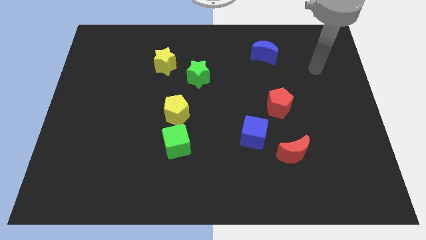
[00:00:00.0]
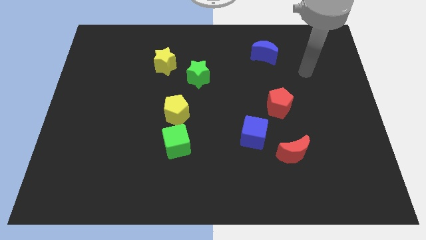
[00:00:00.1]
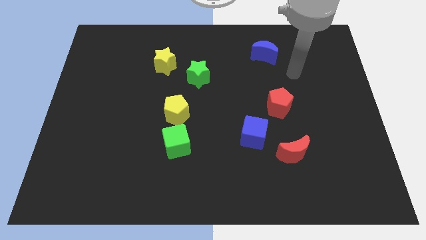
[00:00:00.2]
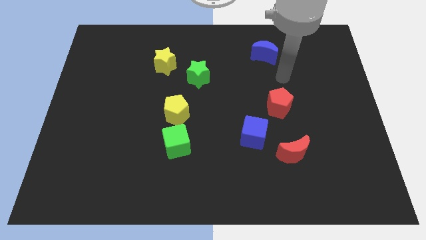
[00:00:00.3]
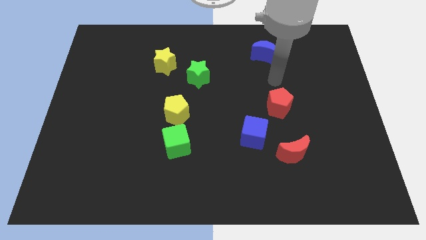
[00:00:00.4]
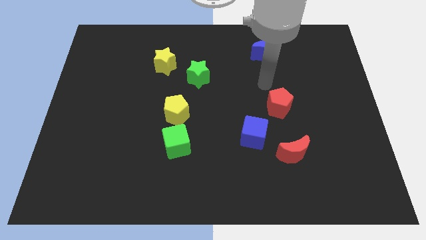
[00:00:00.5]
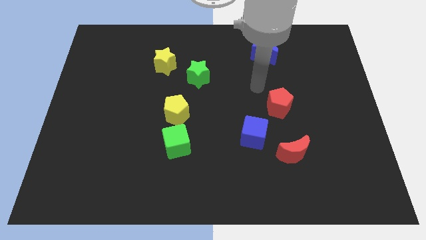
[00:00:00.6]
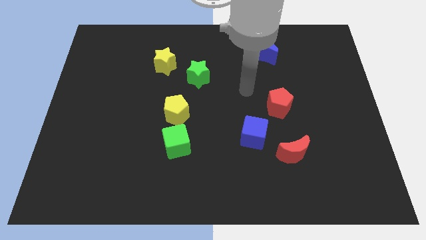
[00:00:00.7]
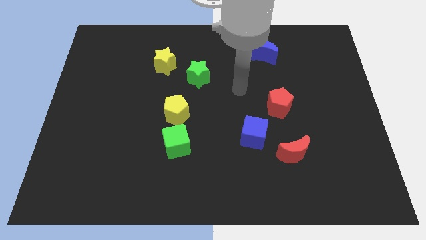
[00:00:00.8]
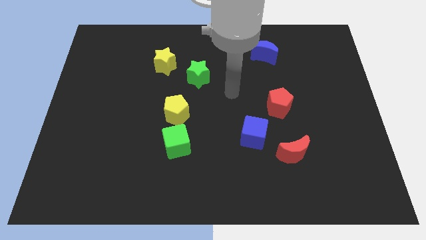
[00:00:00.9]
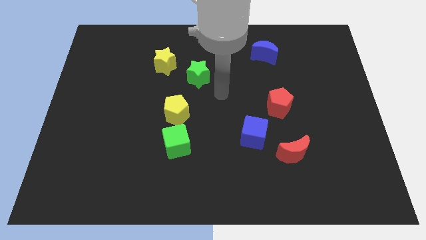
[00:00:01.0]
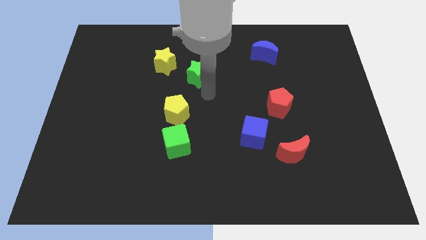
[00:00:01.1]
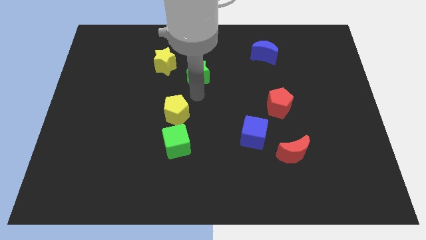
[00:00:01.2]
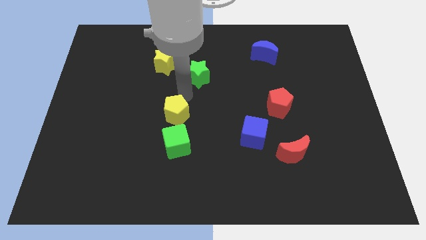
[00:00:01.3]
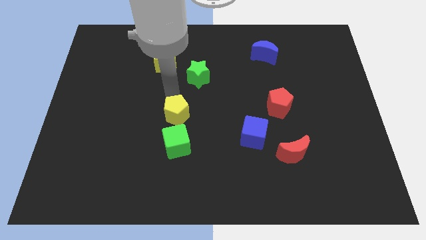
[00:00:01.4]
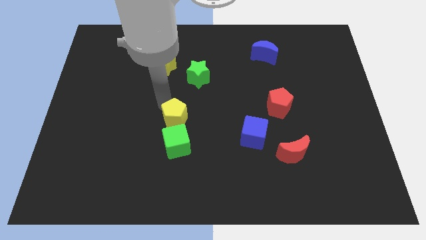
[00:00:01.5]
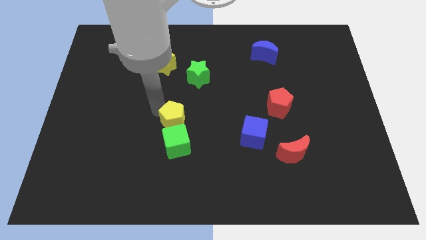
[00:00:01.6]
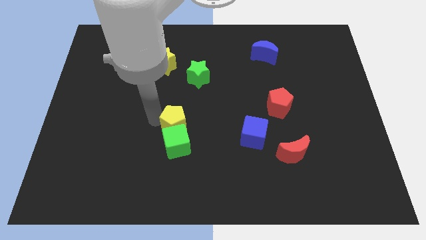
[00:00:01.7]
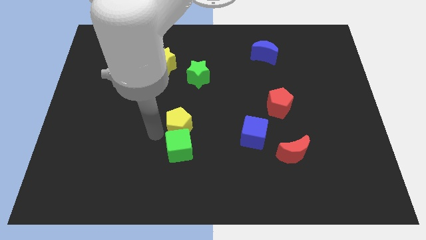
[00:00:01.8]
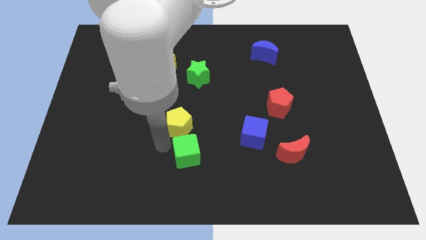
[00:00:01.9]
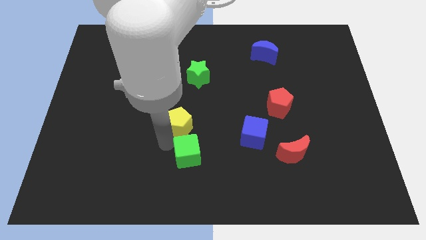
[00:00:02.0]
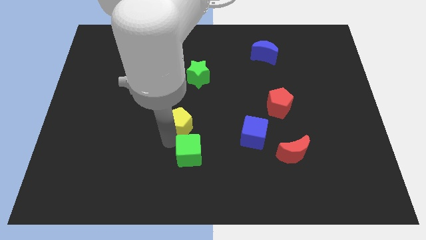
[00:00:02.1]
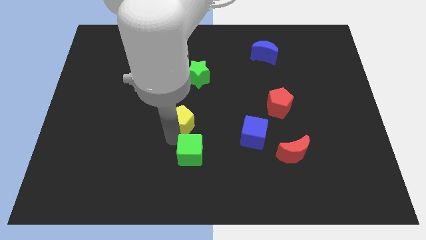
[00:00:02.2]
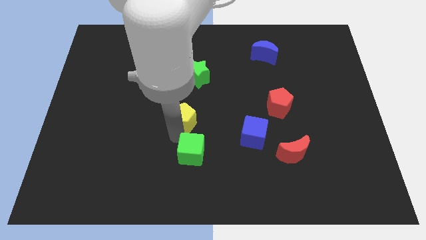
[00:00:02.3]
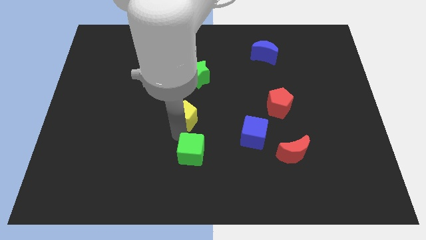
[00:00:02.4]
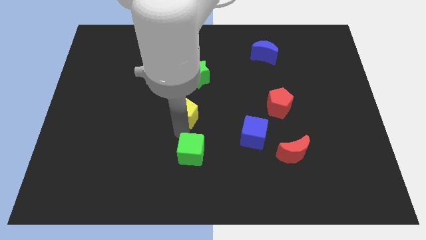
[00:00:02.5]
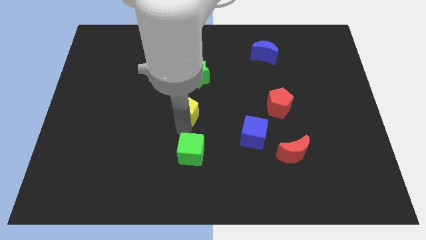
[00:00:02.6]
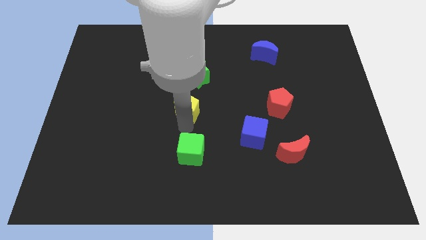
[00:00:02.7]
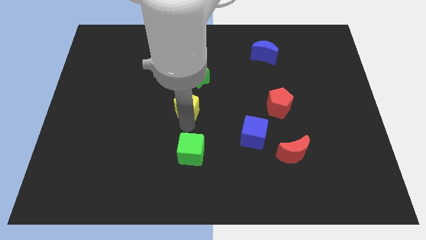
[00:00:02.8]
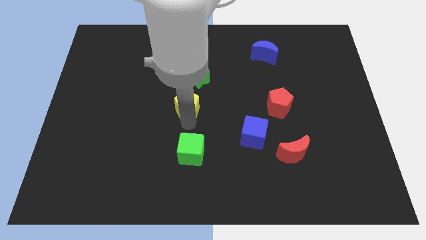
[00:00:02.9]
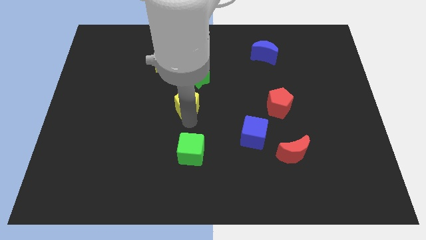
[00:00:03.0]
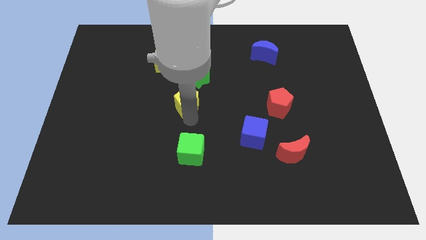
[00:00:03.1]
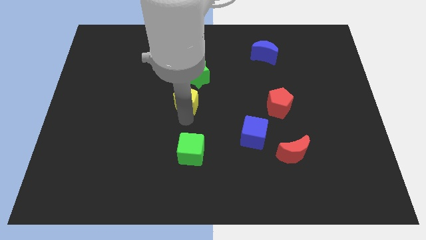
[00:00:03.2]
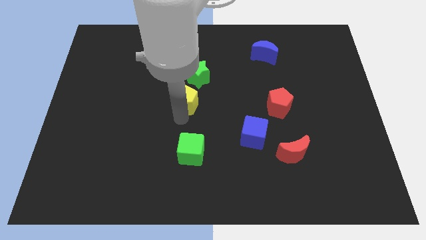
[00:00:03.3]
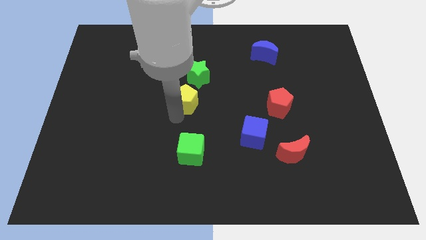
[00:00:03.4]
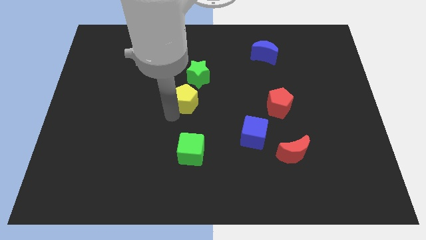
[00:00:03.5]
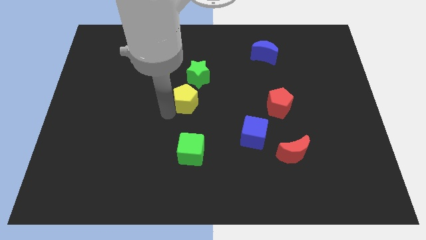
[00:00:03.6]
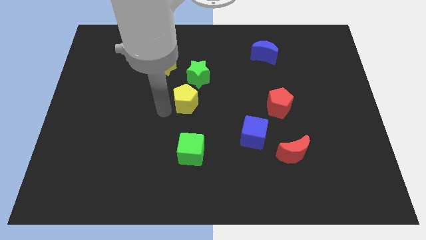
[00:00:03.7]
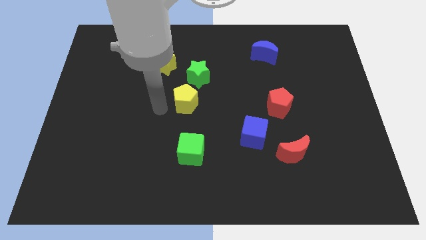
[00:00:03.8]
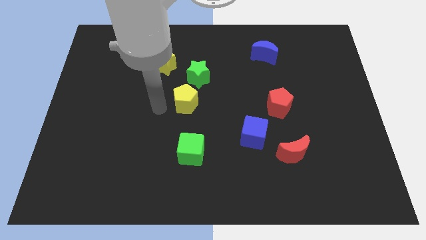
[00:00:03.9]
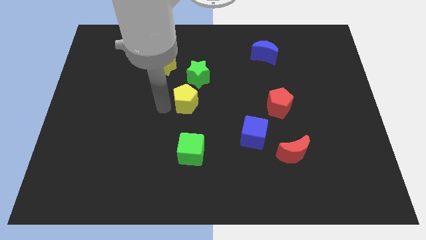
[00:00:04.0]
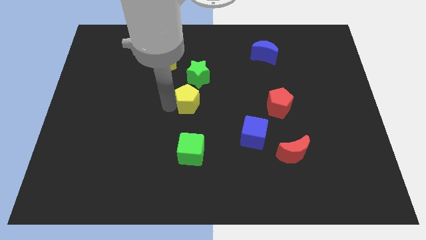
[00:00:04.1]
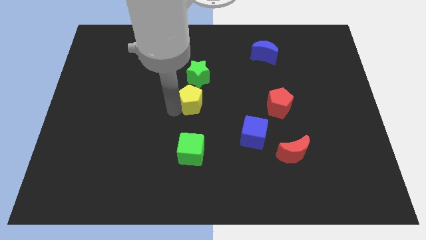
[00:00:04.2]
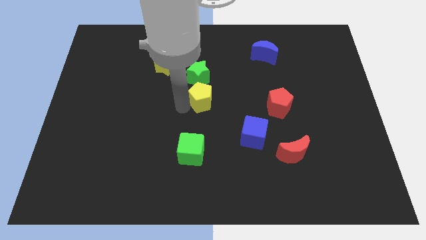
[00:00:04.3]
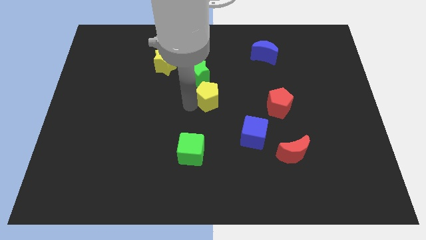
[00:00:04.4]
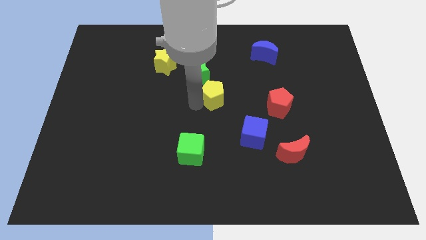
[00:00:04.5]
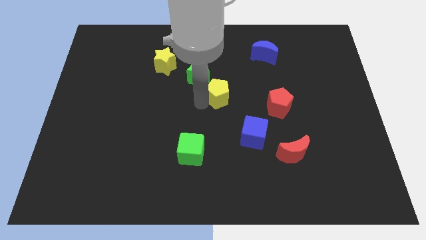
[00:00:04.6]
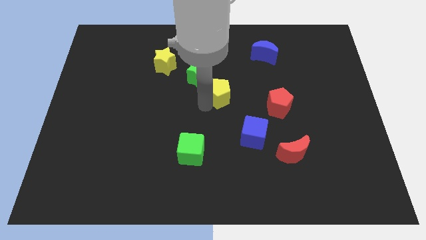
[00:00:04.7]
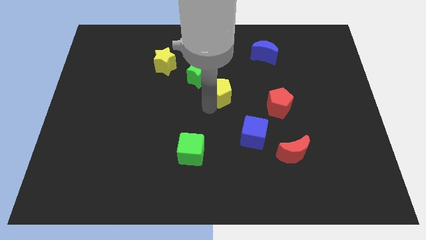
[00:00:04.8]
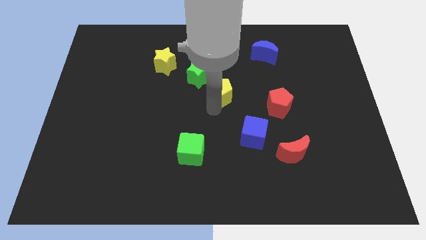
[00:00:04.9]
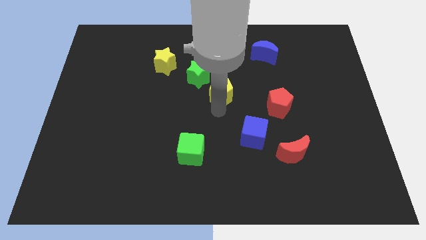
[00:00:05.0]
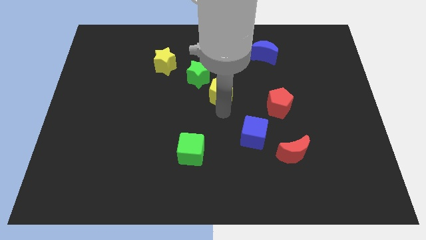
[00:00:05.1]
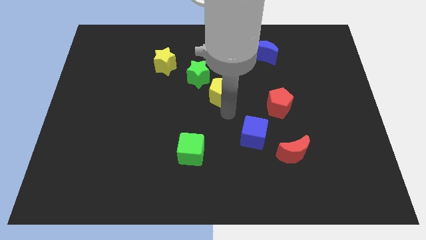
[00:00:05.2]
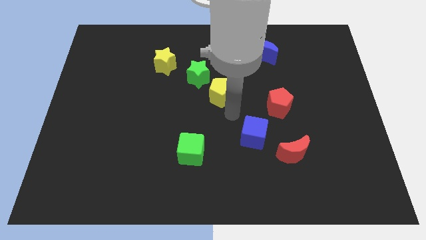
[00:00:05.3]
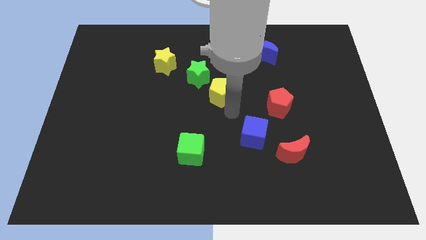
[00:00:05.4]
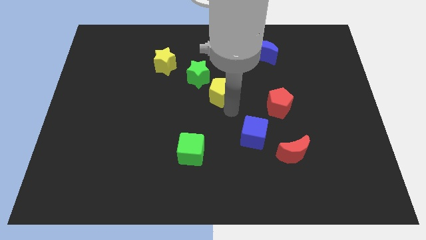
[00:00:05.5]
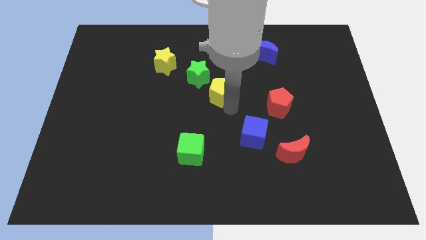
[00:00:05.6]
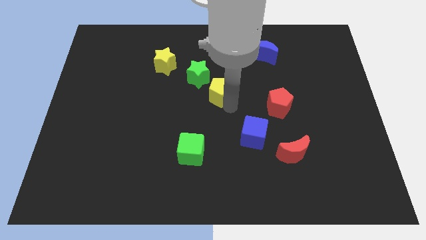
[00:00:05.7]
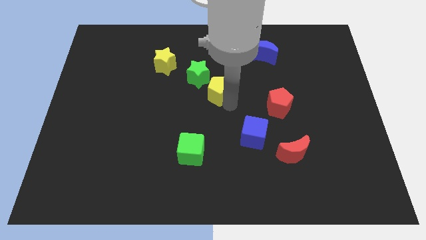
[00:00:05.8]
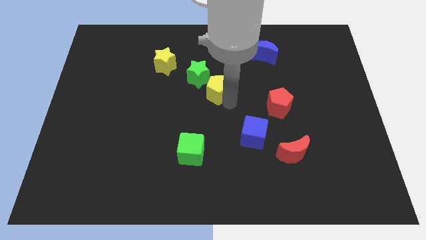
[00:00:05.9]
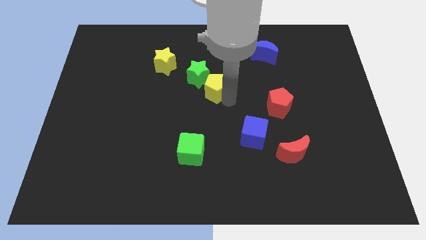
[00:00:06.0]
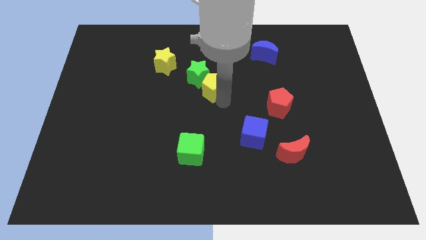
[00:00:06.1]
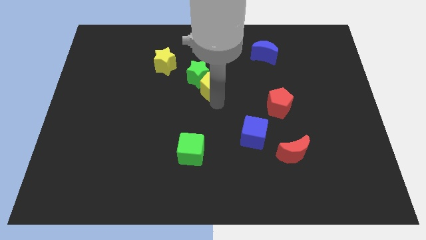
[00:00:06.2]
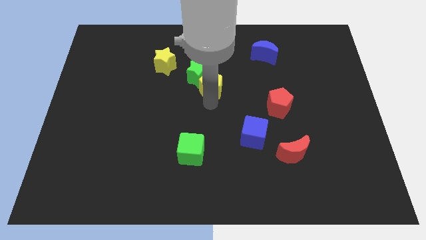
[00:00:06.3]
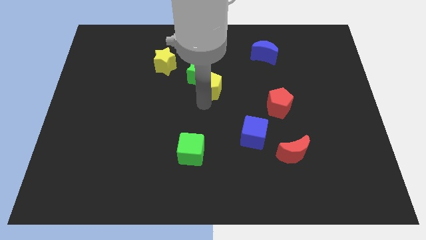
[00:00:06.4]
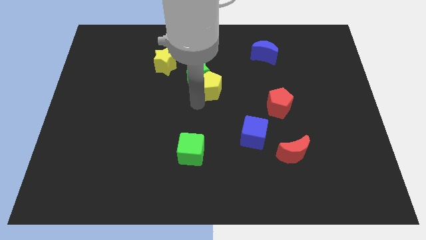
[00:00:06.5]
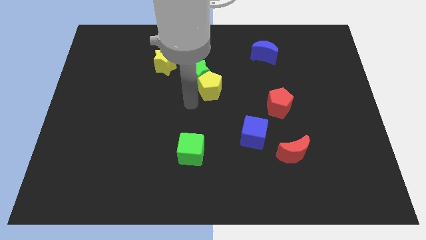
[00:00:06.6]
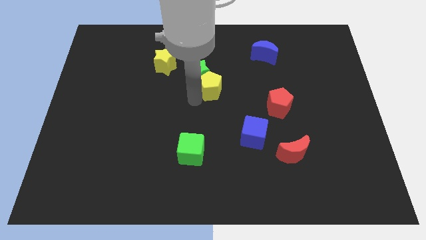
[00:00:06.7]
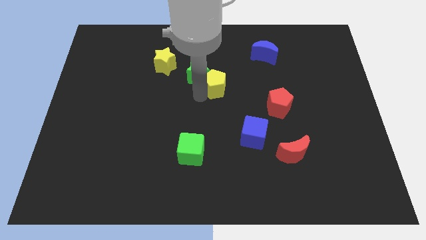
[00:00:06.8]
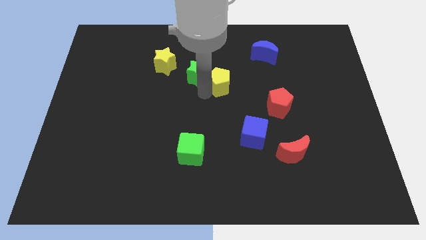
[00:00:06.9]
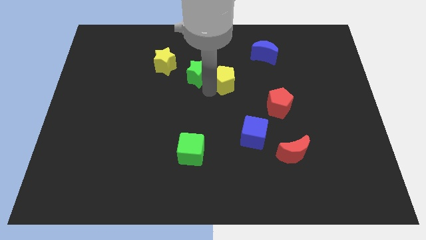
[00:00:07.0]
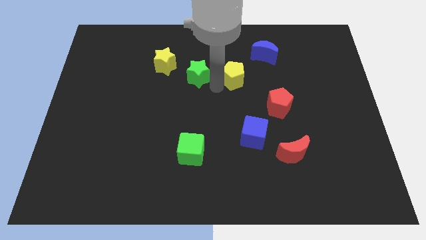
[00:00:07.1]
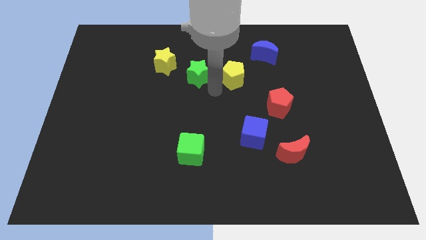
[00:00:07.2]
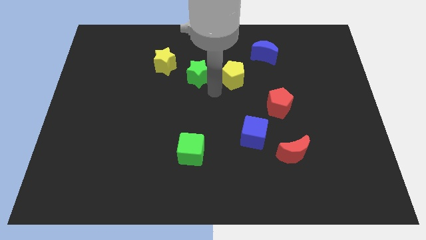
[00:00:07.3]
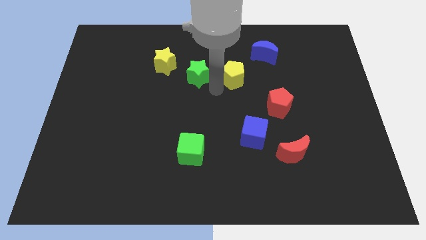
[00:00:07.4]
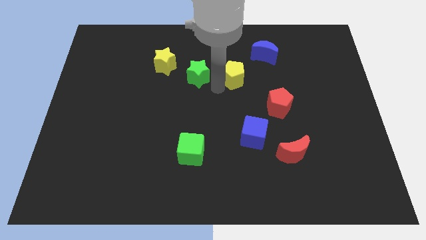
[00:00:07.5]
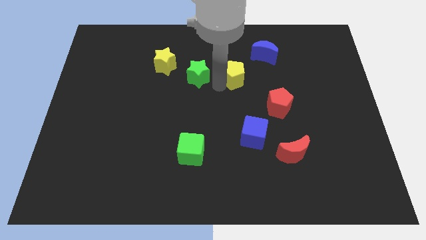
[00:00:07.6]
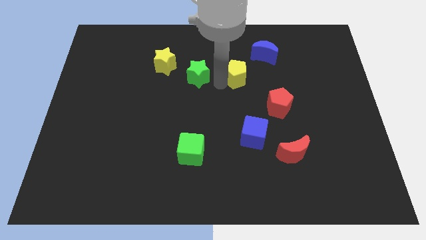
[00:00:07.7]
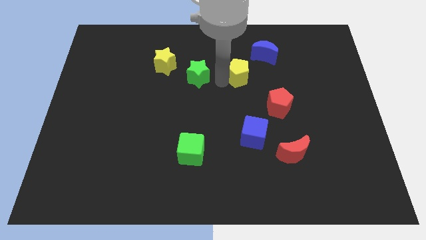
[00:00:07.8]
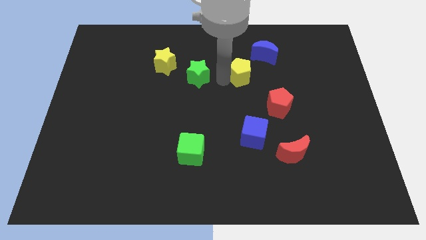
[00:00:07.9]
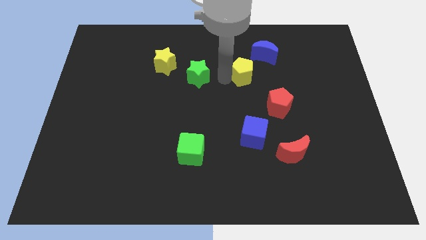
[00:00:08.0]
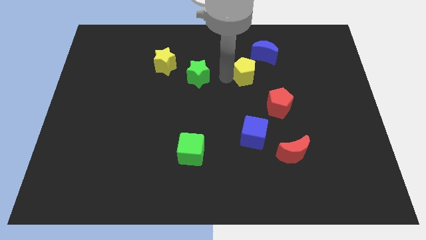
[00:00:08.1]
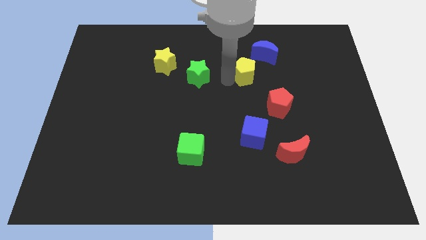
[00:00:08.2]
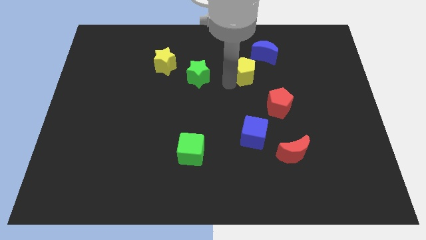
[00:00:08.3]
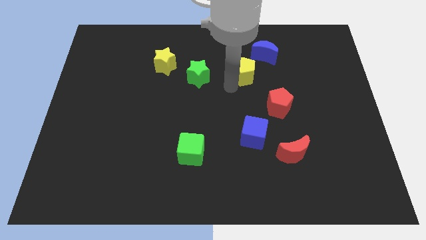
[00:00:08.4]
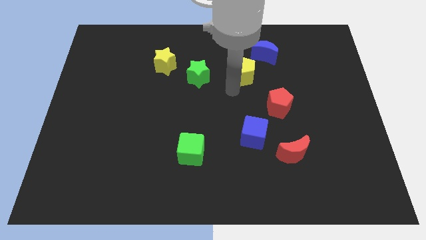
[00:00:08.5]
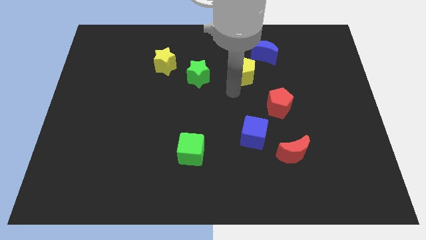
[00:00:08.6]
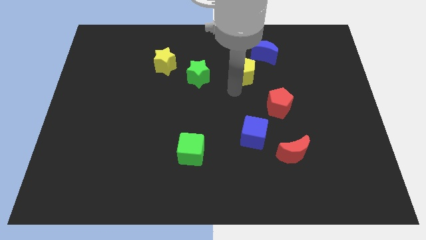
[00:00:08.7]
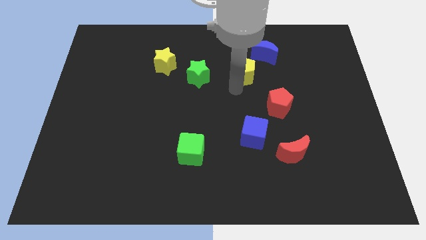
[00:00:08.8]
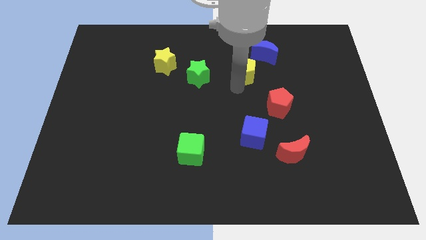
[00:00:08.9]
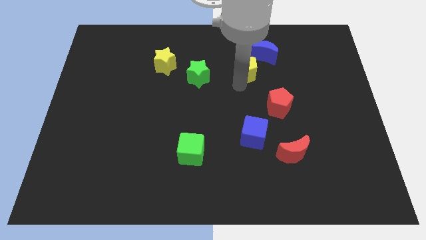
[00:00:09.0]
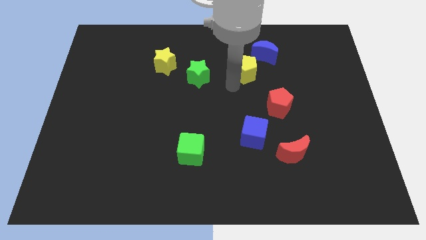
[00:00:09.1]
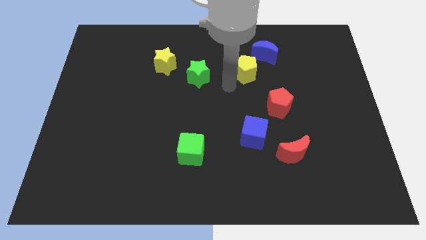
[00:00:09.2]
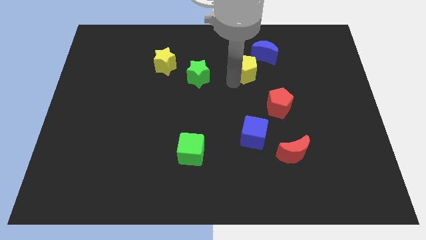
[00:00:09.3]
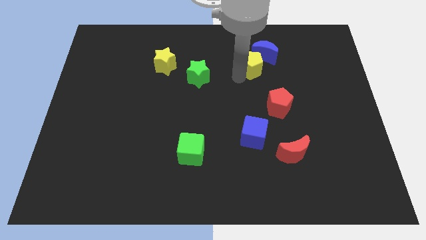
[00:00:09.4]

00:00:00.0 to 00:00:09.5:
move the yellow pentagon to the blue moon
